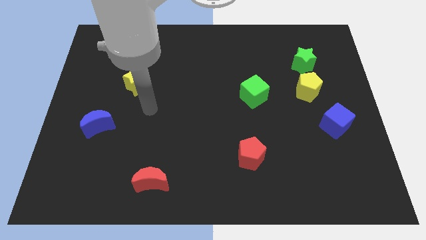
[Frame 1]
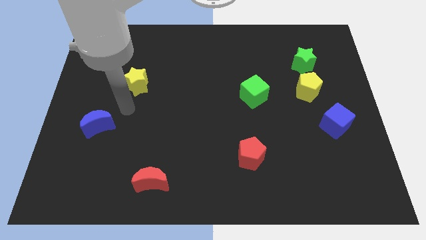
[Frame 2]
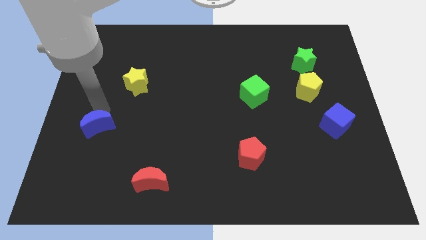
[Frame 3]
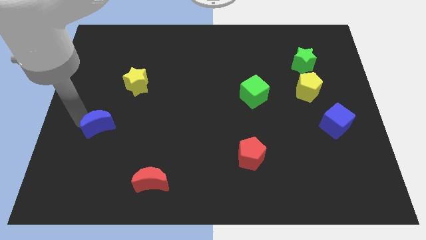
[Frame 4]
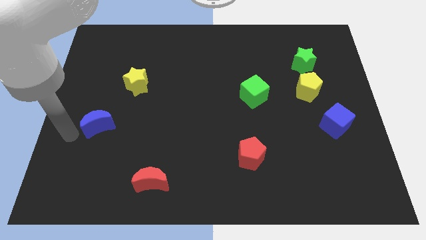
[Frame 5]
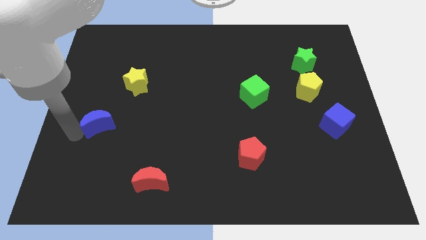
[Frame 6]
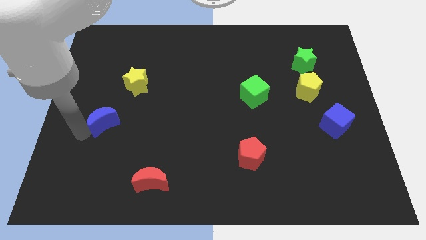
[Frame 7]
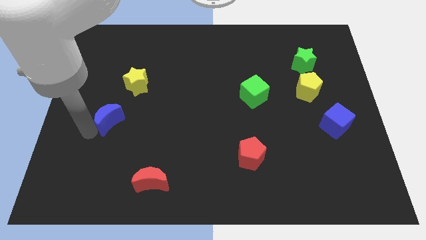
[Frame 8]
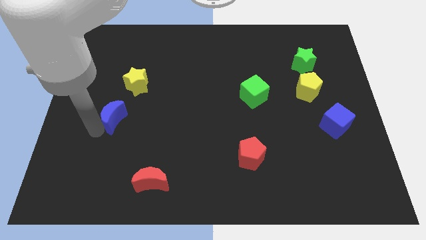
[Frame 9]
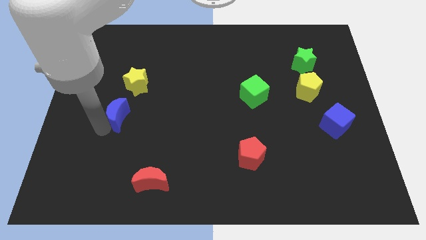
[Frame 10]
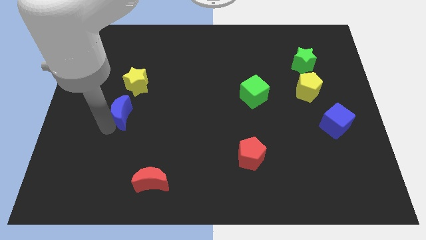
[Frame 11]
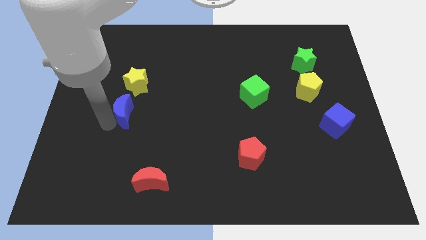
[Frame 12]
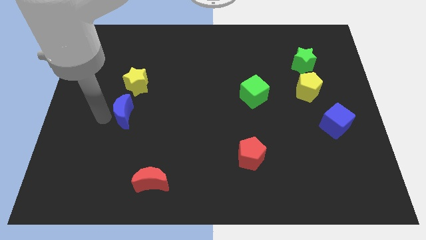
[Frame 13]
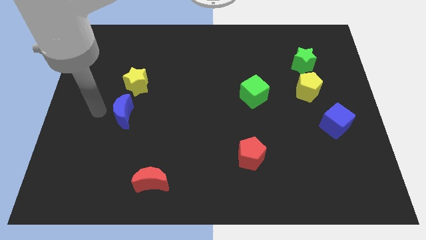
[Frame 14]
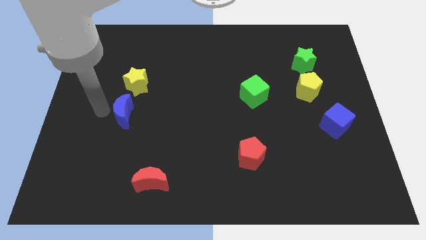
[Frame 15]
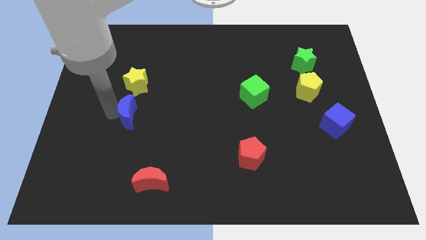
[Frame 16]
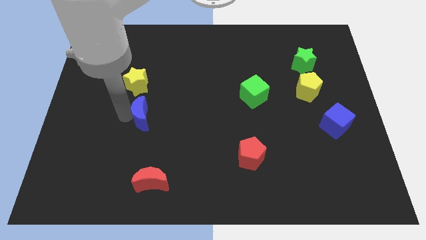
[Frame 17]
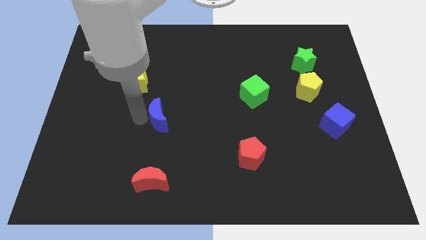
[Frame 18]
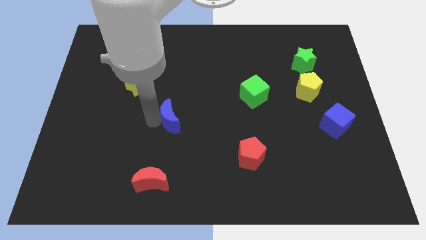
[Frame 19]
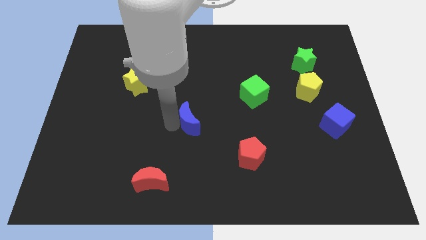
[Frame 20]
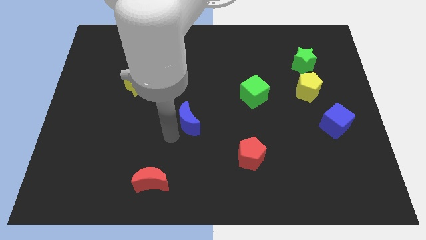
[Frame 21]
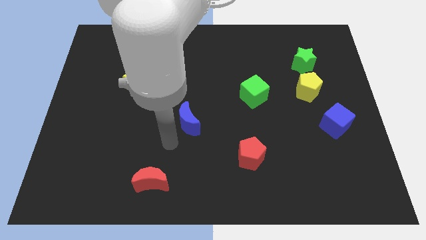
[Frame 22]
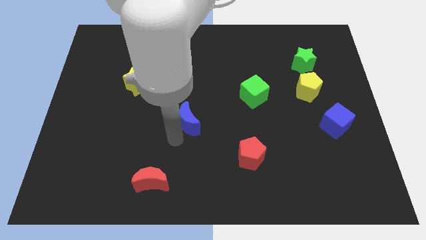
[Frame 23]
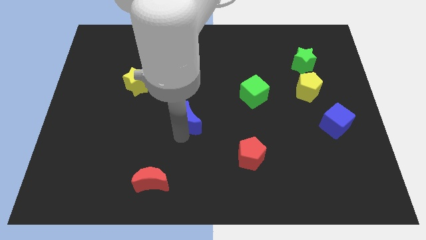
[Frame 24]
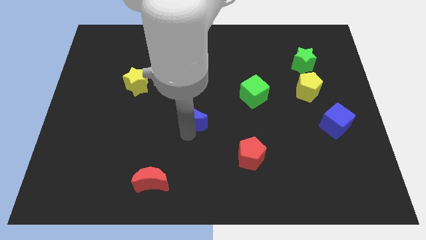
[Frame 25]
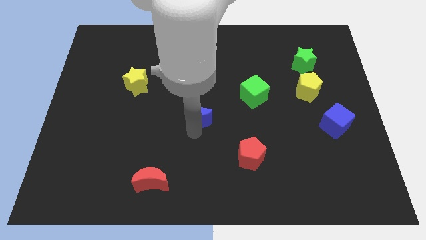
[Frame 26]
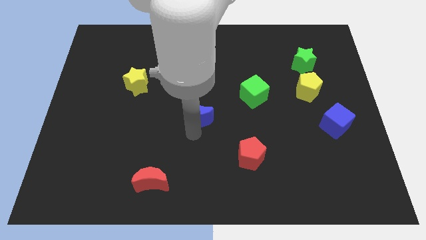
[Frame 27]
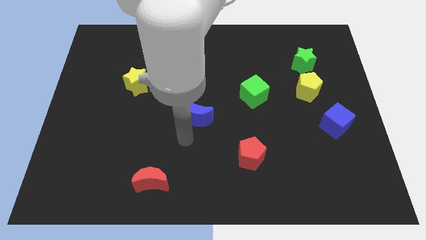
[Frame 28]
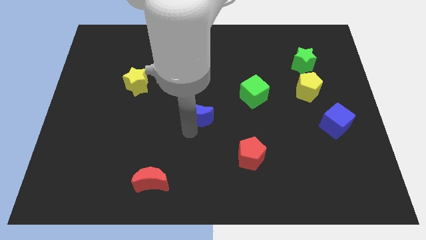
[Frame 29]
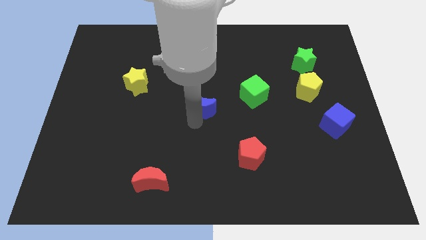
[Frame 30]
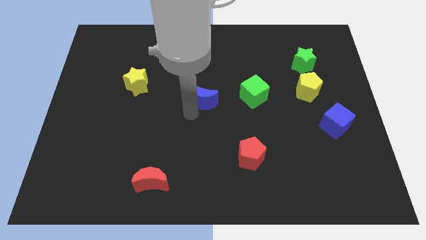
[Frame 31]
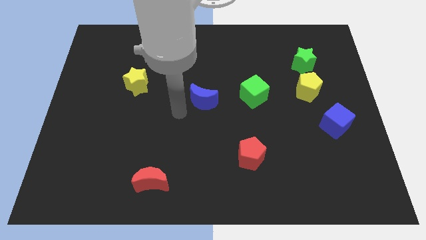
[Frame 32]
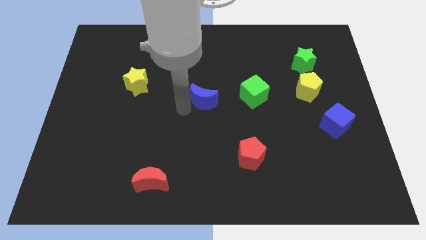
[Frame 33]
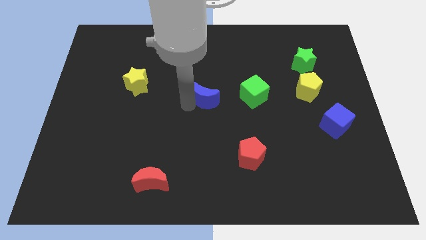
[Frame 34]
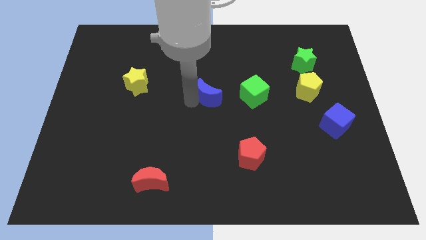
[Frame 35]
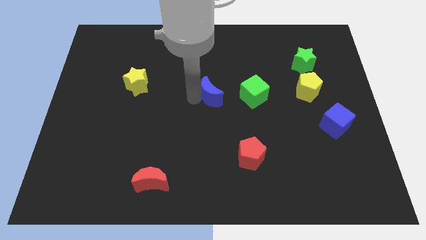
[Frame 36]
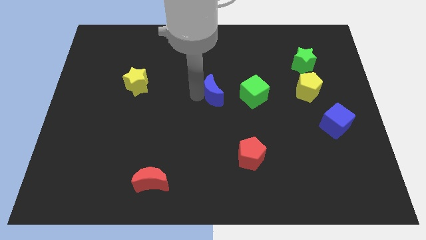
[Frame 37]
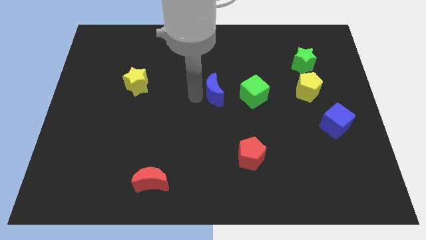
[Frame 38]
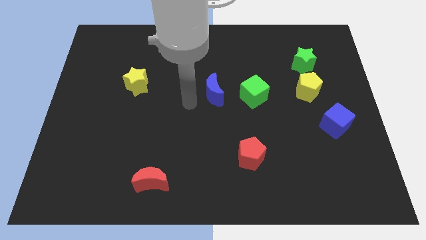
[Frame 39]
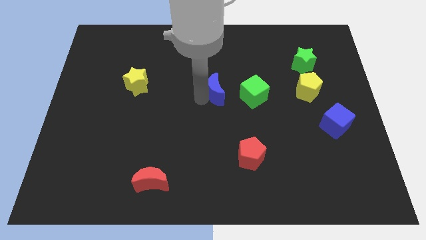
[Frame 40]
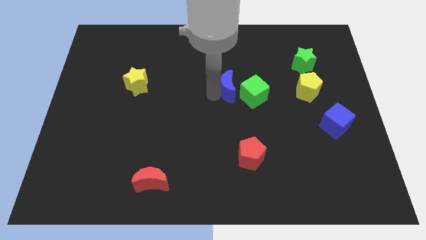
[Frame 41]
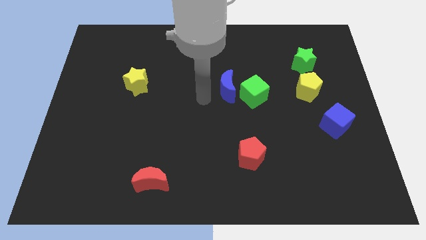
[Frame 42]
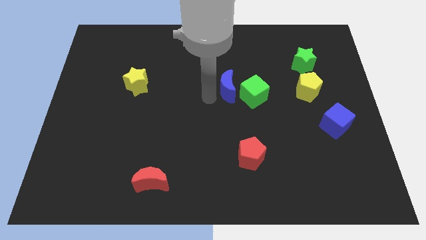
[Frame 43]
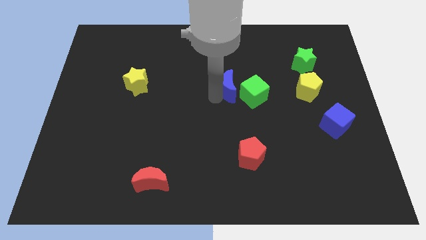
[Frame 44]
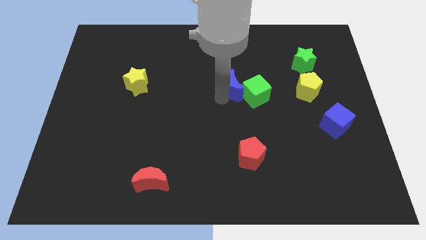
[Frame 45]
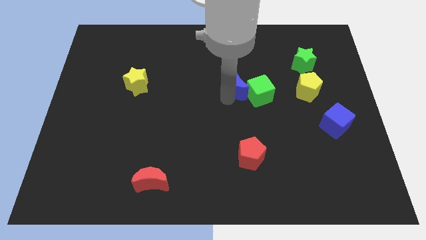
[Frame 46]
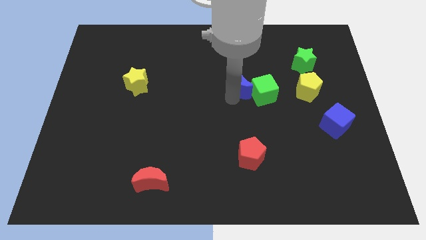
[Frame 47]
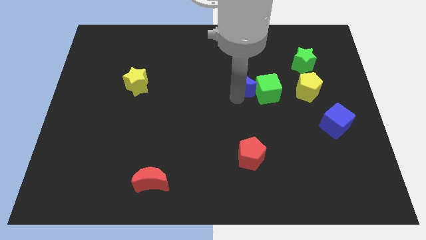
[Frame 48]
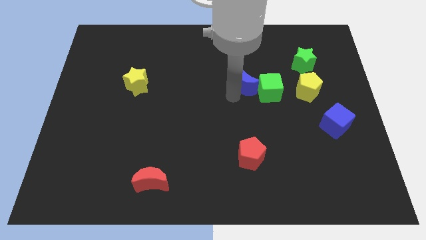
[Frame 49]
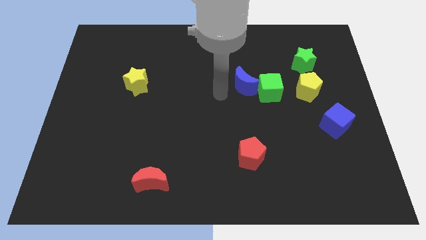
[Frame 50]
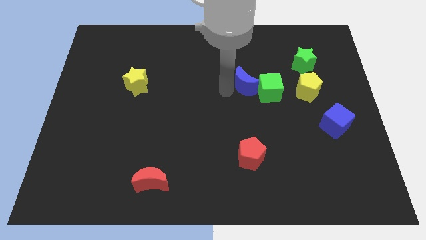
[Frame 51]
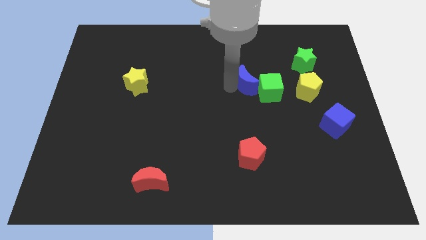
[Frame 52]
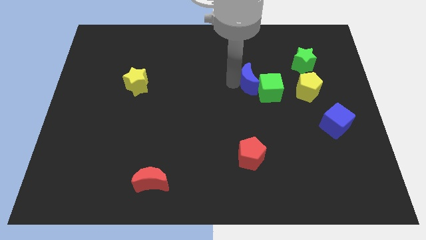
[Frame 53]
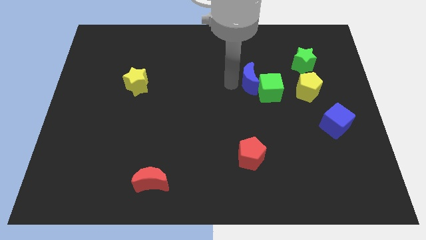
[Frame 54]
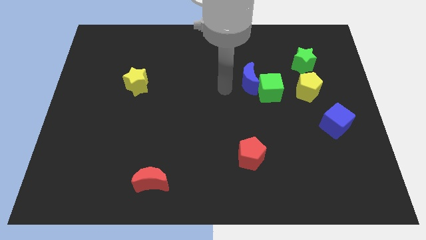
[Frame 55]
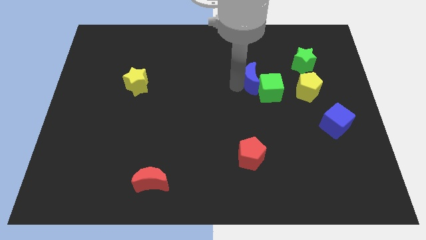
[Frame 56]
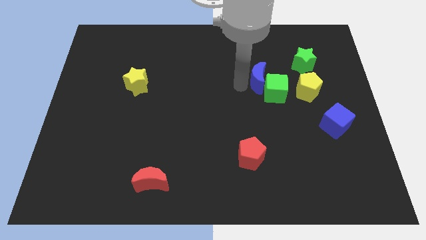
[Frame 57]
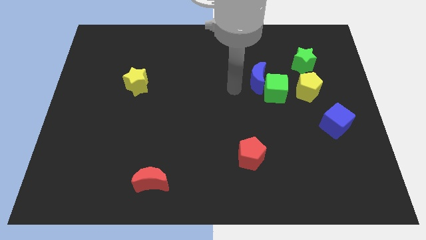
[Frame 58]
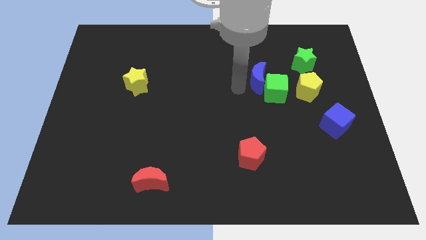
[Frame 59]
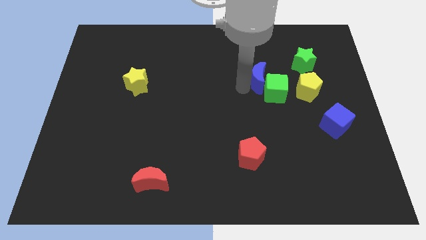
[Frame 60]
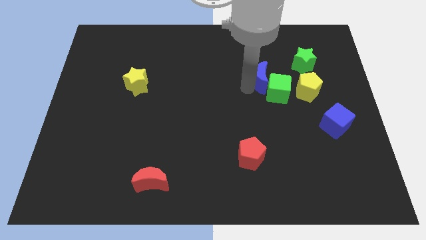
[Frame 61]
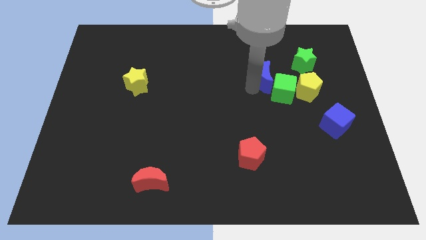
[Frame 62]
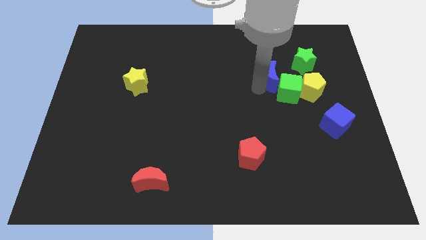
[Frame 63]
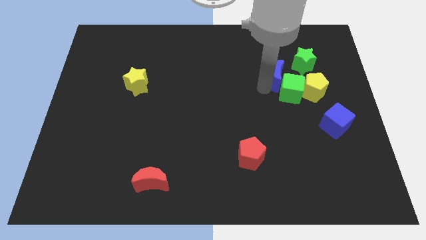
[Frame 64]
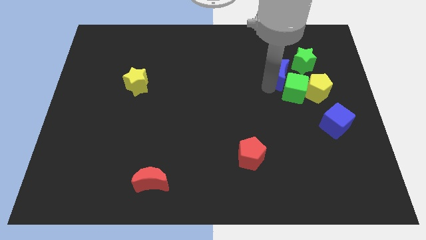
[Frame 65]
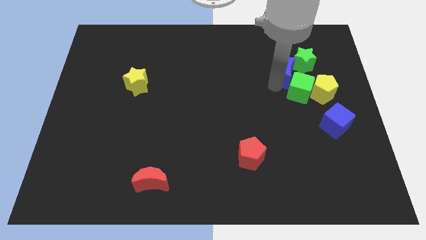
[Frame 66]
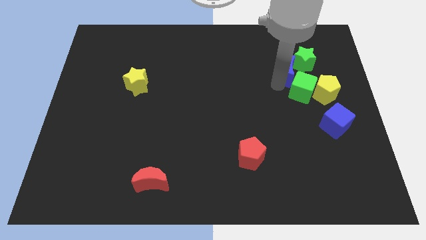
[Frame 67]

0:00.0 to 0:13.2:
push the blue moon to the green star

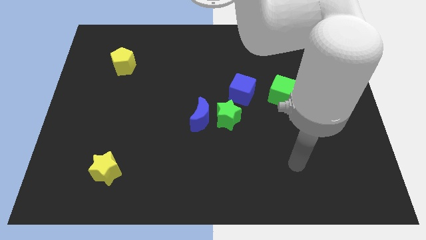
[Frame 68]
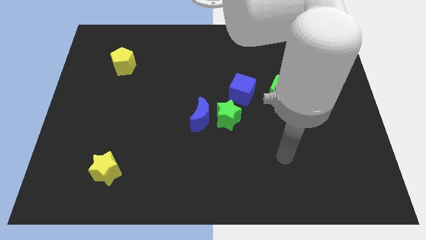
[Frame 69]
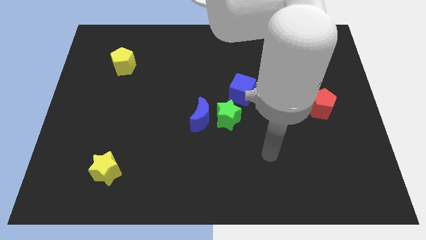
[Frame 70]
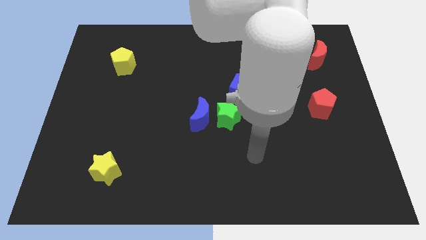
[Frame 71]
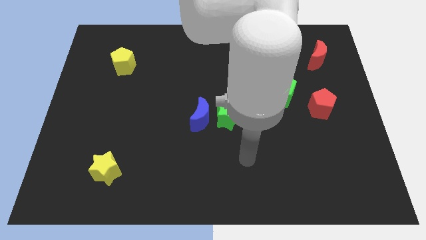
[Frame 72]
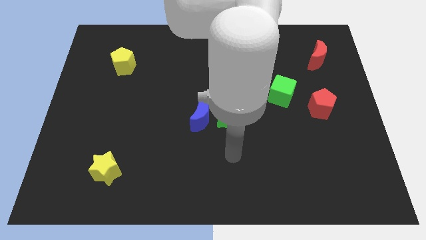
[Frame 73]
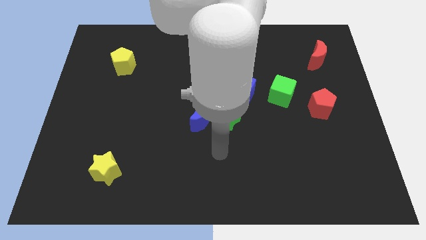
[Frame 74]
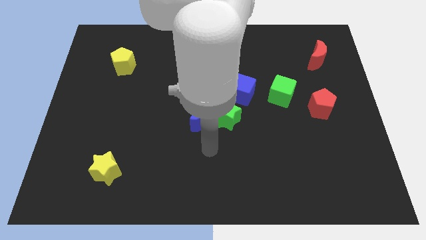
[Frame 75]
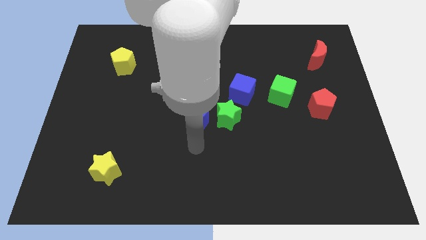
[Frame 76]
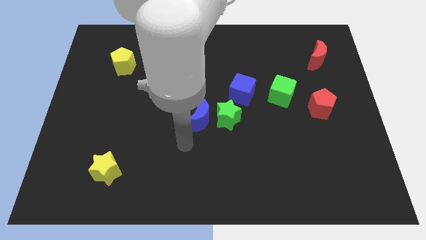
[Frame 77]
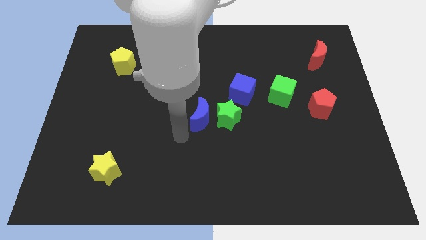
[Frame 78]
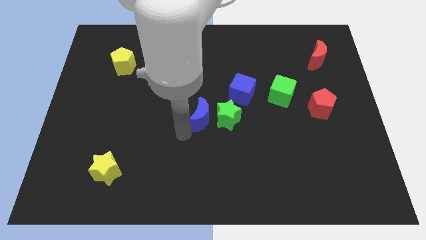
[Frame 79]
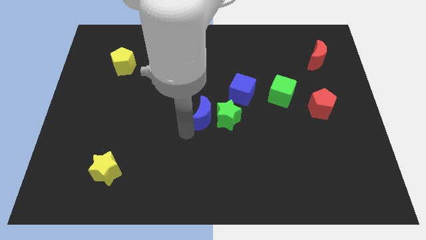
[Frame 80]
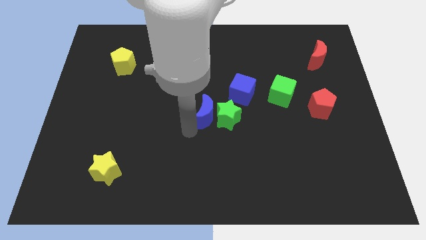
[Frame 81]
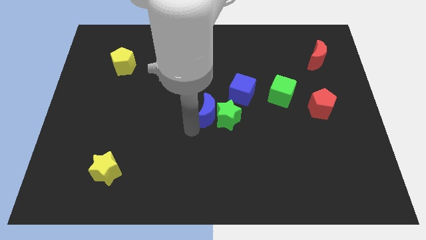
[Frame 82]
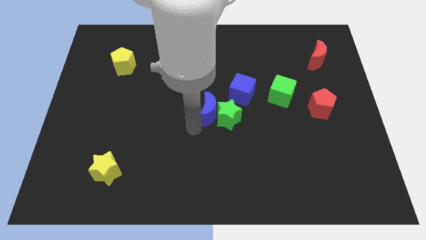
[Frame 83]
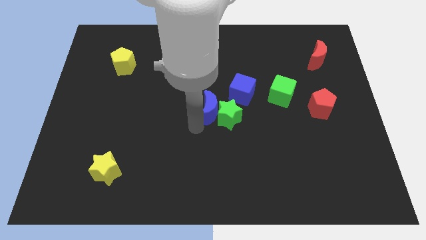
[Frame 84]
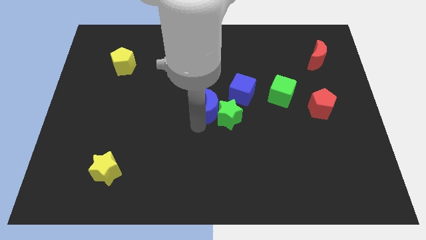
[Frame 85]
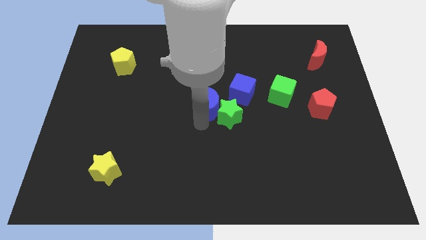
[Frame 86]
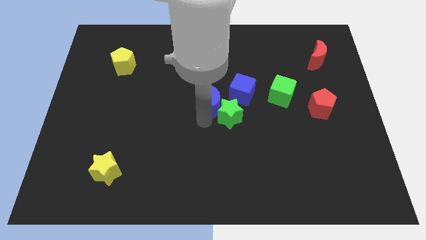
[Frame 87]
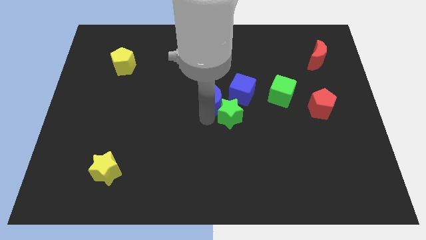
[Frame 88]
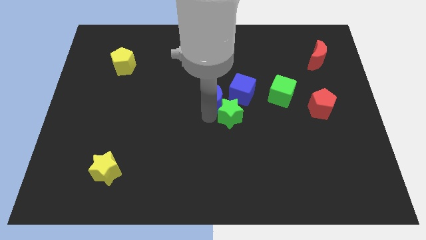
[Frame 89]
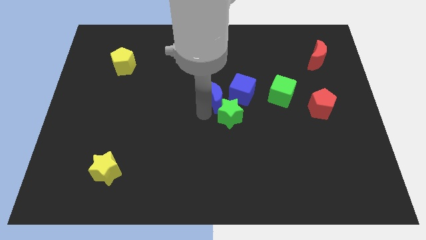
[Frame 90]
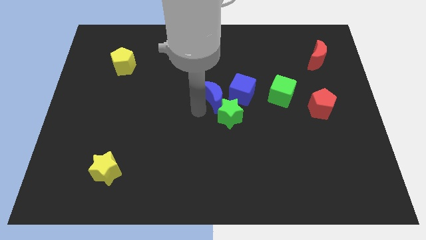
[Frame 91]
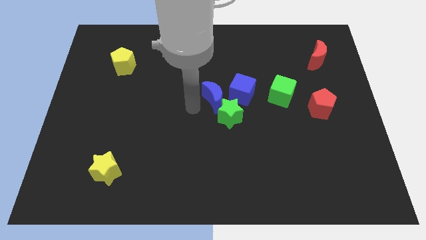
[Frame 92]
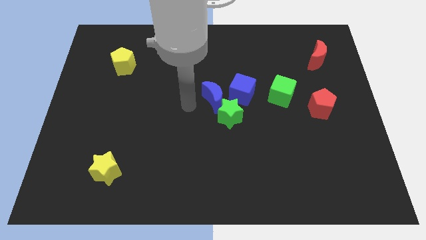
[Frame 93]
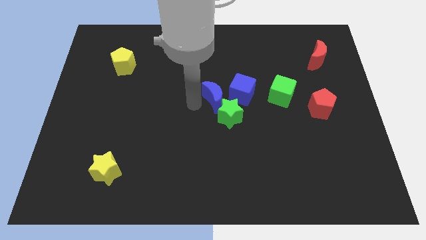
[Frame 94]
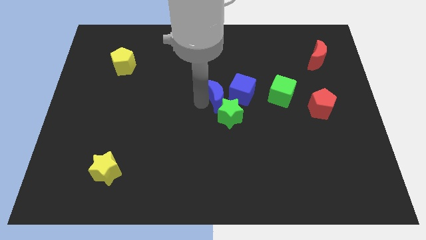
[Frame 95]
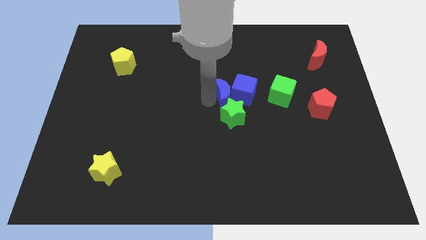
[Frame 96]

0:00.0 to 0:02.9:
push the blue moon to the blue cube
